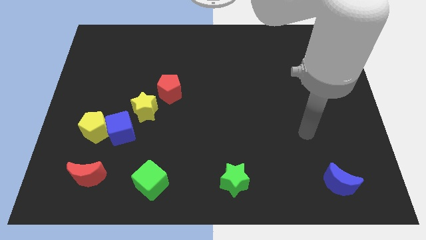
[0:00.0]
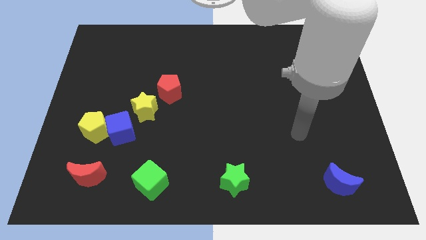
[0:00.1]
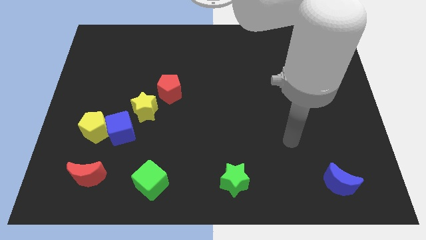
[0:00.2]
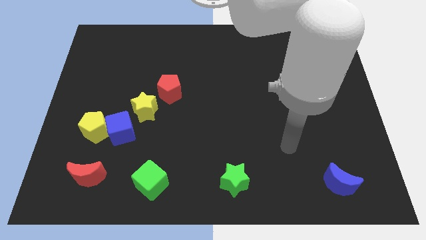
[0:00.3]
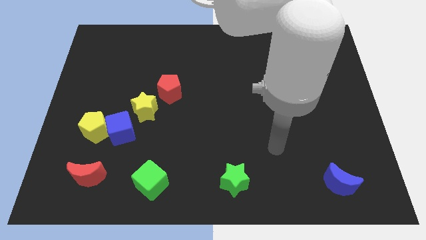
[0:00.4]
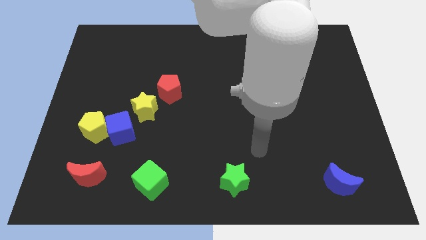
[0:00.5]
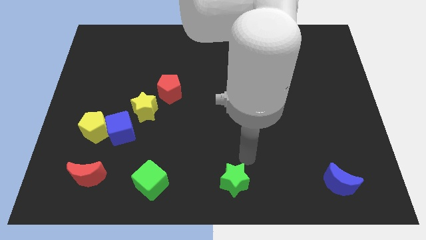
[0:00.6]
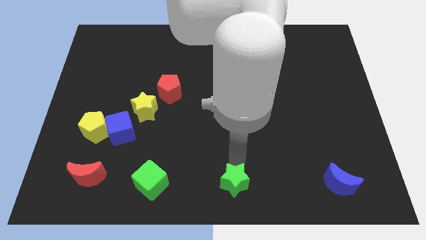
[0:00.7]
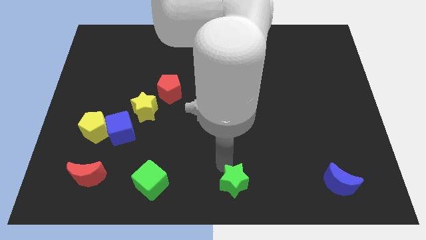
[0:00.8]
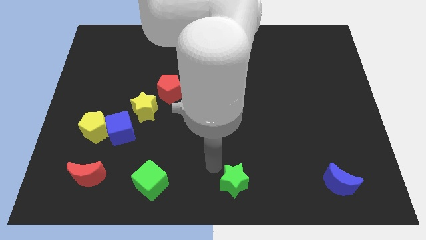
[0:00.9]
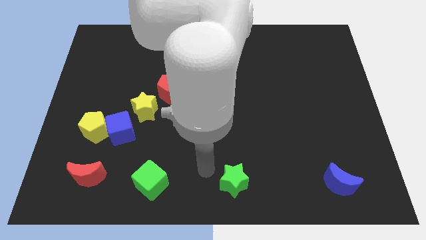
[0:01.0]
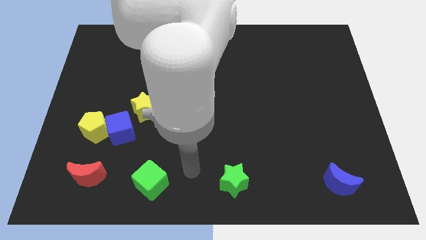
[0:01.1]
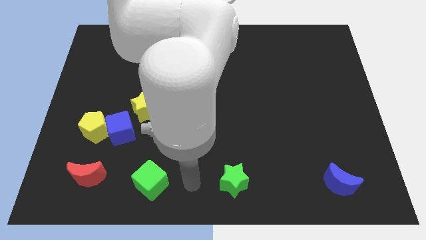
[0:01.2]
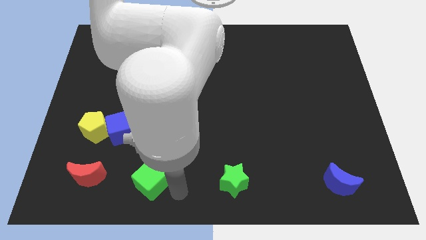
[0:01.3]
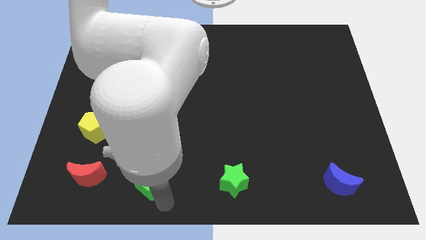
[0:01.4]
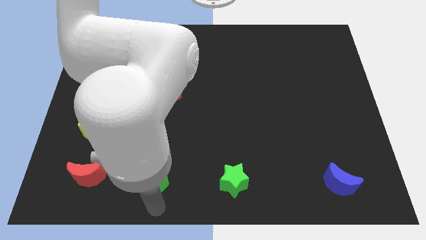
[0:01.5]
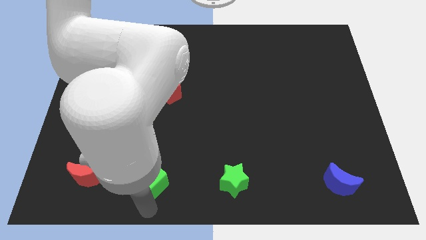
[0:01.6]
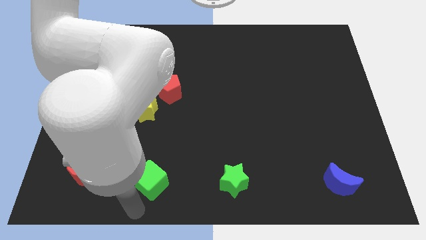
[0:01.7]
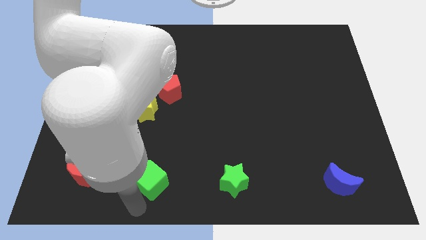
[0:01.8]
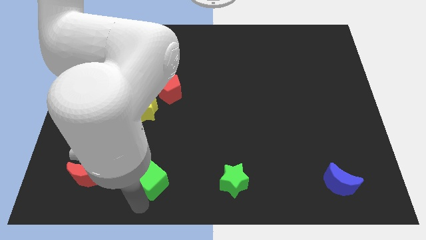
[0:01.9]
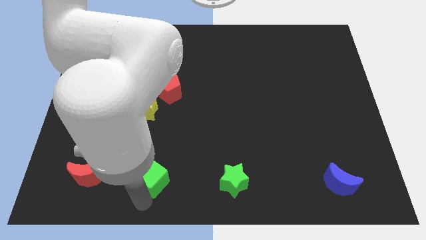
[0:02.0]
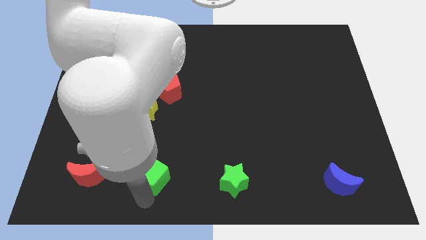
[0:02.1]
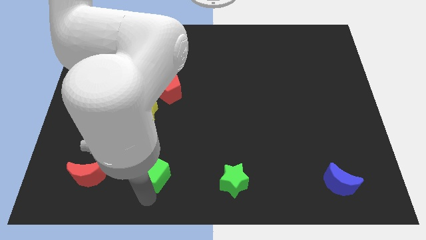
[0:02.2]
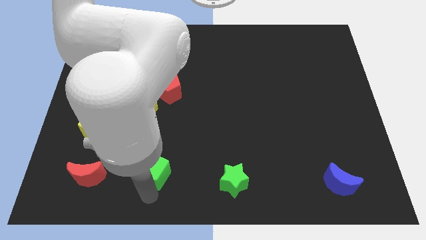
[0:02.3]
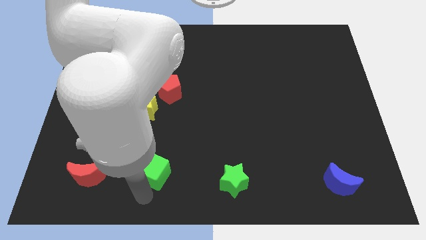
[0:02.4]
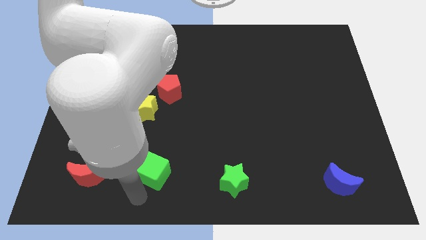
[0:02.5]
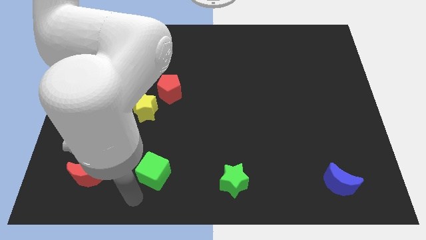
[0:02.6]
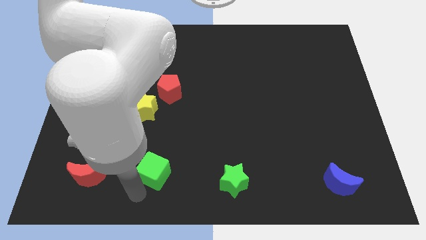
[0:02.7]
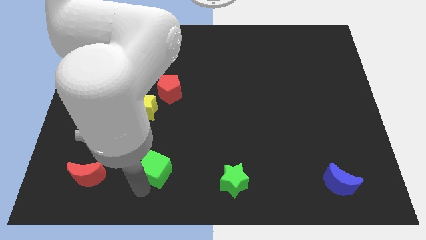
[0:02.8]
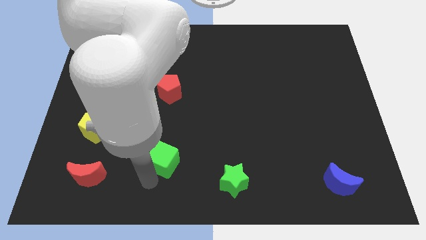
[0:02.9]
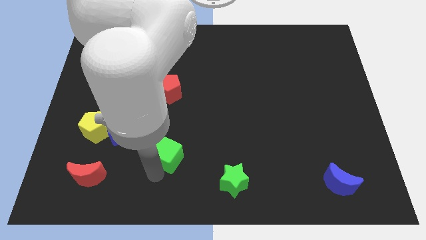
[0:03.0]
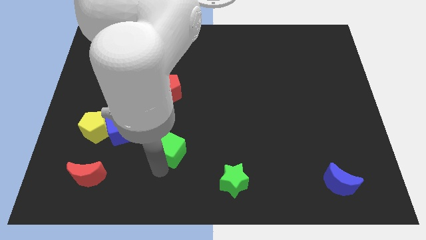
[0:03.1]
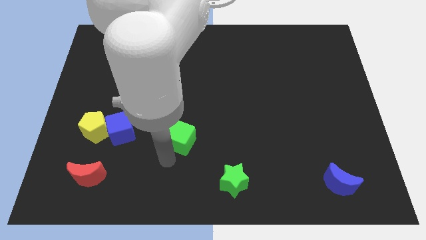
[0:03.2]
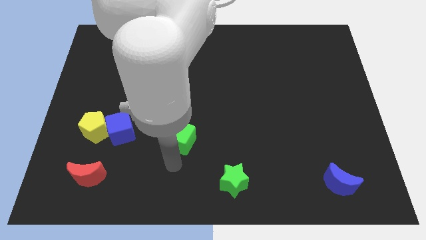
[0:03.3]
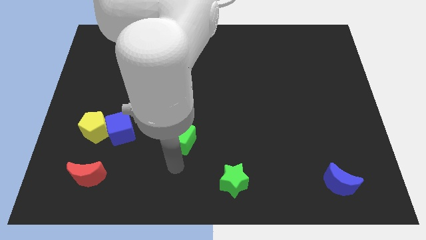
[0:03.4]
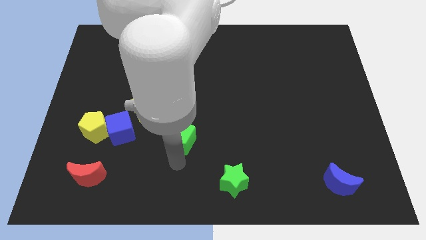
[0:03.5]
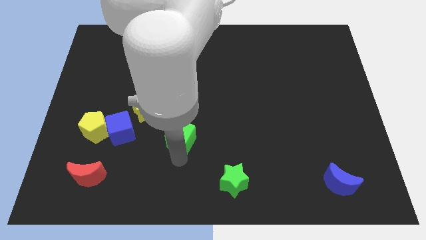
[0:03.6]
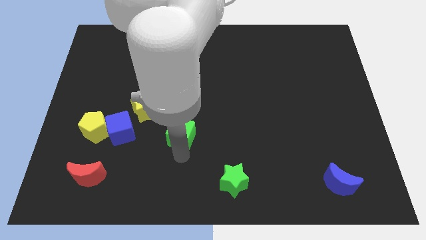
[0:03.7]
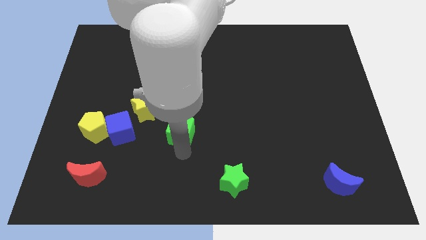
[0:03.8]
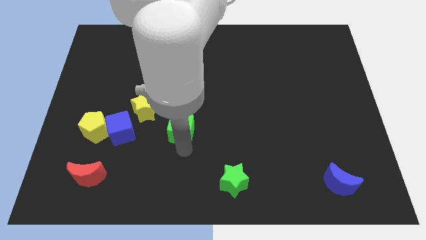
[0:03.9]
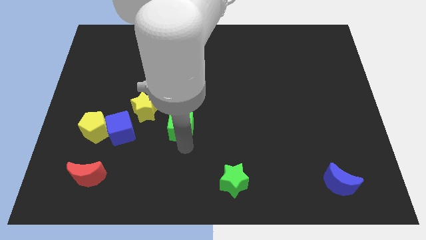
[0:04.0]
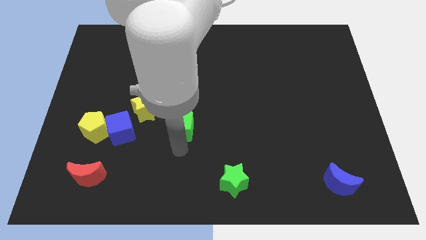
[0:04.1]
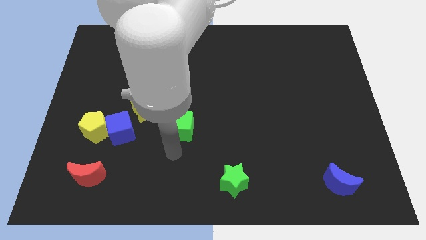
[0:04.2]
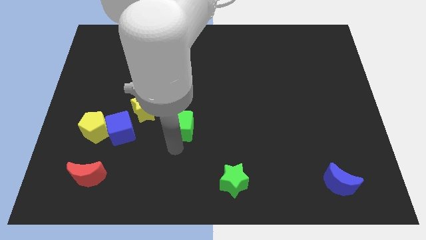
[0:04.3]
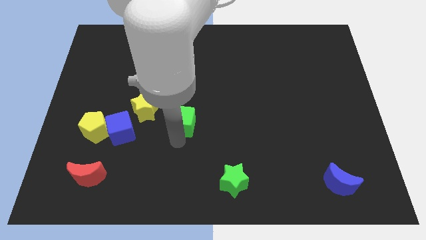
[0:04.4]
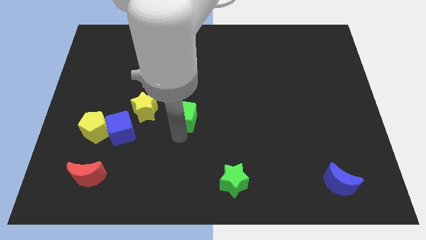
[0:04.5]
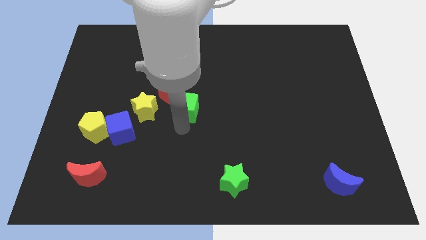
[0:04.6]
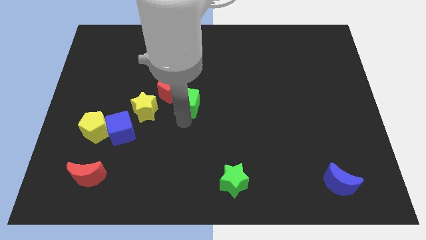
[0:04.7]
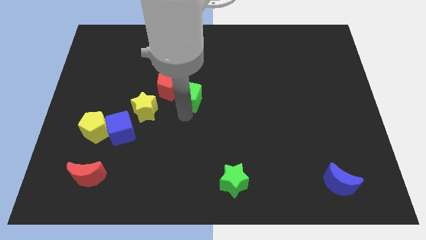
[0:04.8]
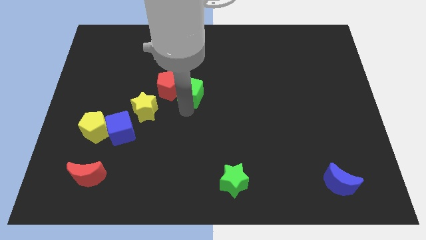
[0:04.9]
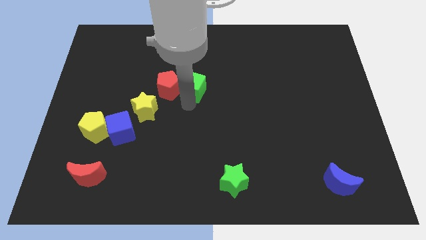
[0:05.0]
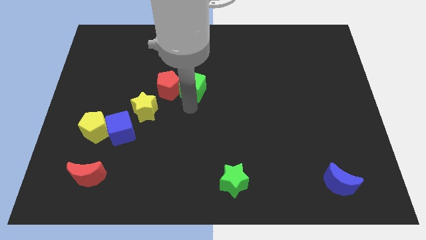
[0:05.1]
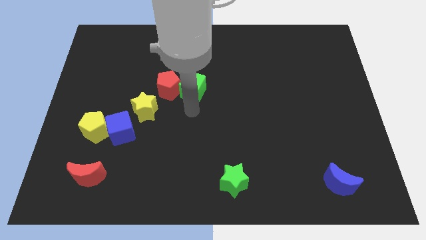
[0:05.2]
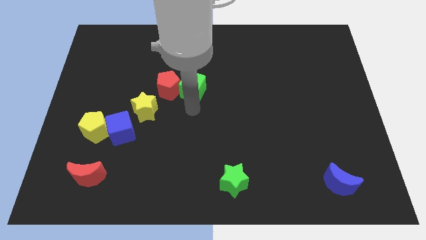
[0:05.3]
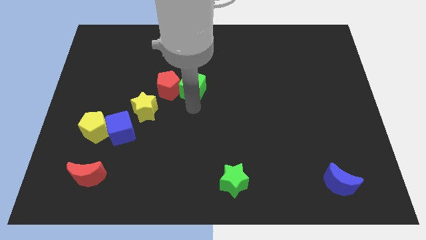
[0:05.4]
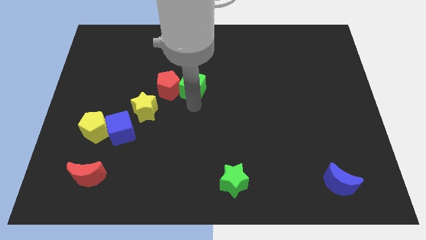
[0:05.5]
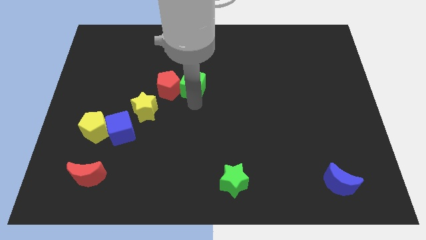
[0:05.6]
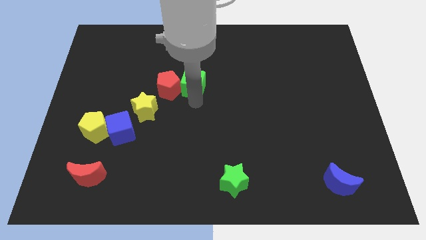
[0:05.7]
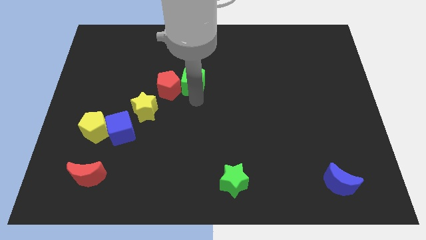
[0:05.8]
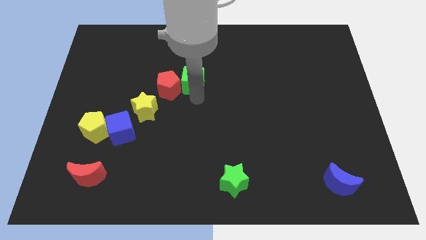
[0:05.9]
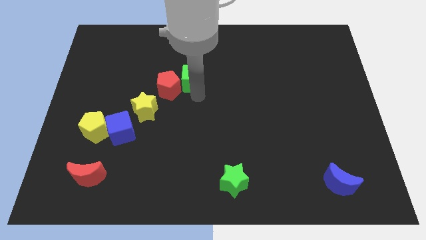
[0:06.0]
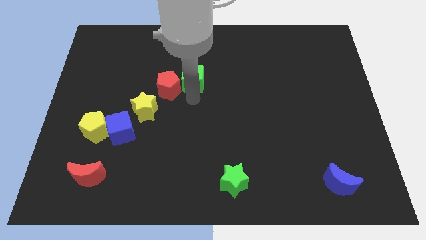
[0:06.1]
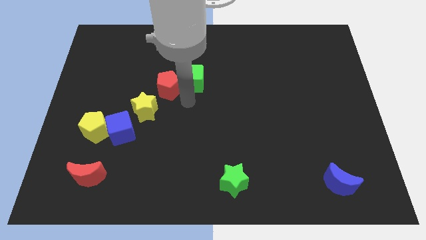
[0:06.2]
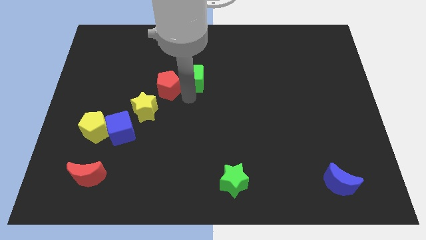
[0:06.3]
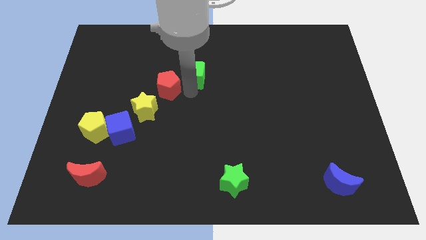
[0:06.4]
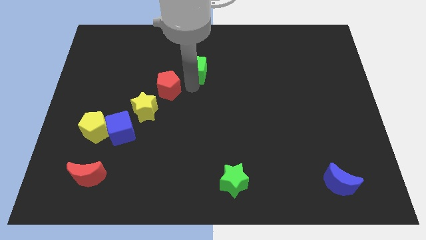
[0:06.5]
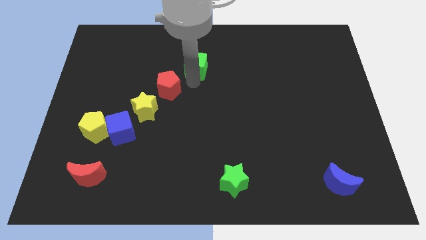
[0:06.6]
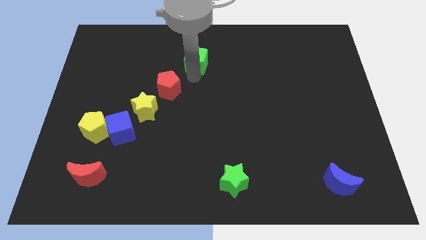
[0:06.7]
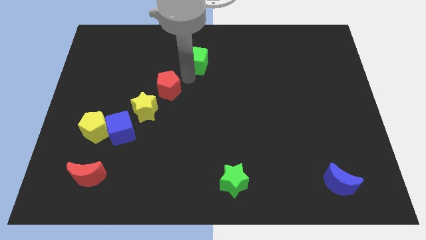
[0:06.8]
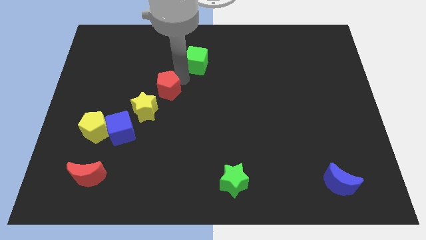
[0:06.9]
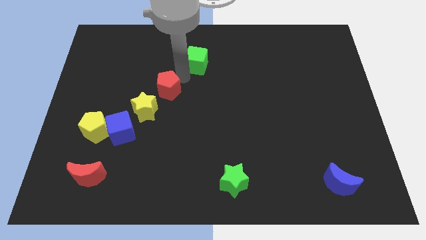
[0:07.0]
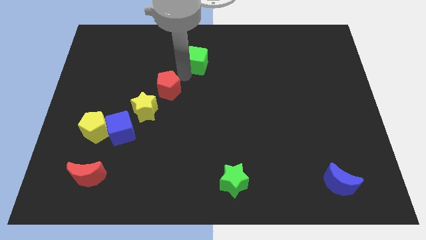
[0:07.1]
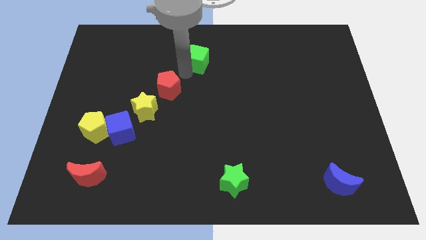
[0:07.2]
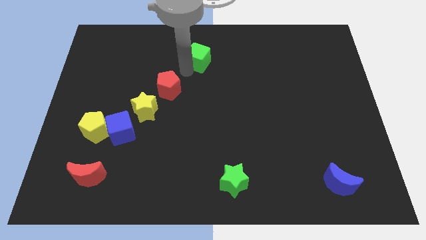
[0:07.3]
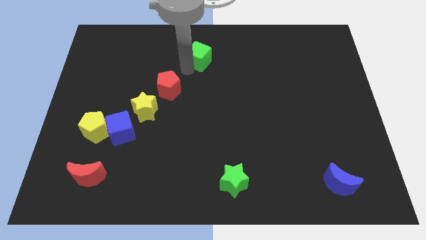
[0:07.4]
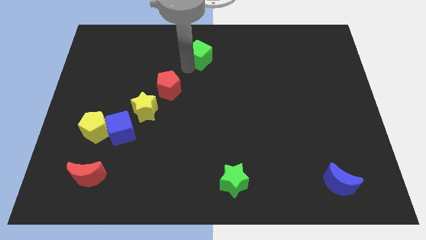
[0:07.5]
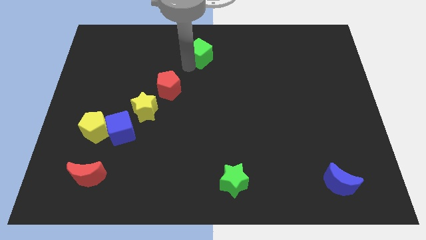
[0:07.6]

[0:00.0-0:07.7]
move the green cube to the towards your base
